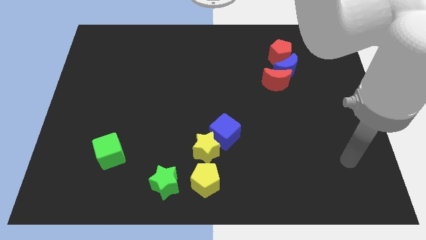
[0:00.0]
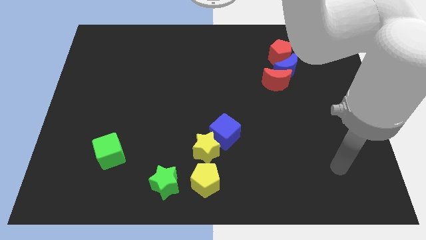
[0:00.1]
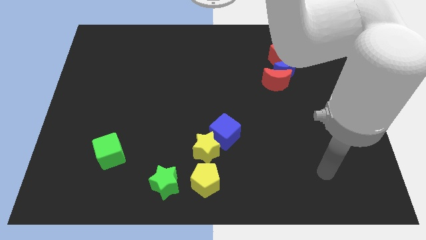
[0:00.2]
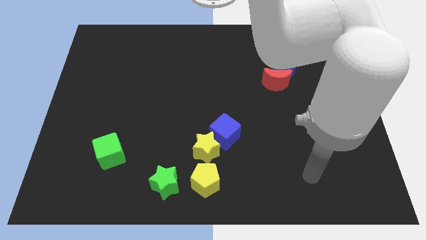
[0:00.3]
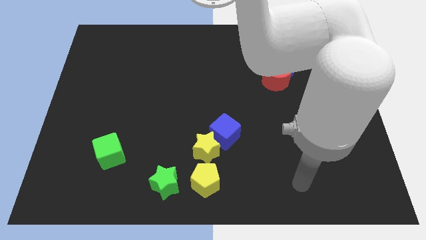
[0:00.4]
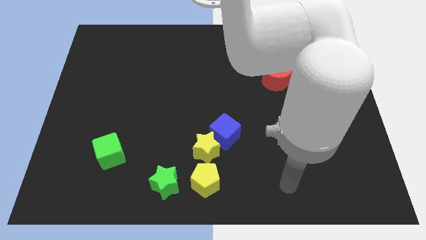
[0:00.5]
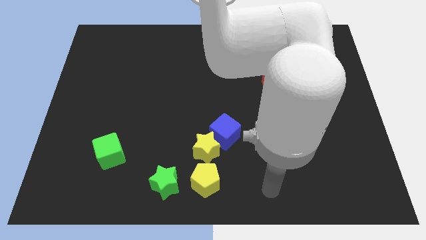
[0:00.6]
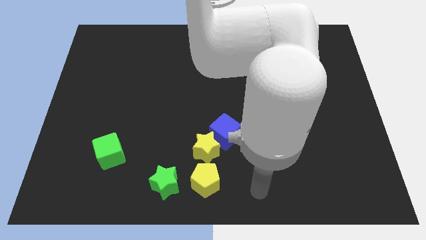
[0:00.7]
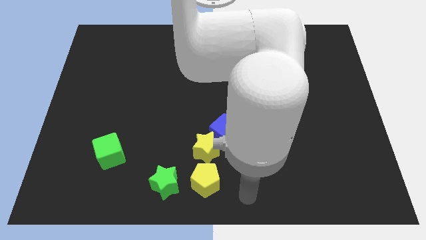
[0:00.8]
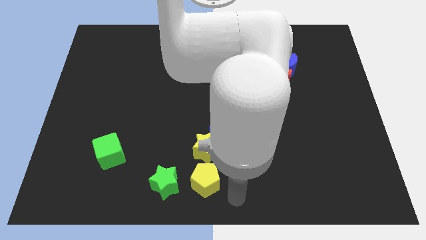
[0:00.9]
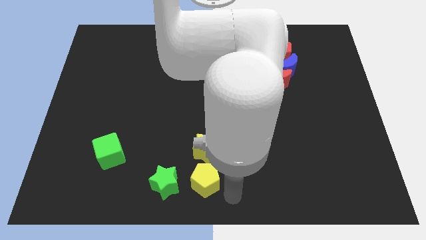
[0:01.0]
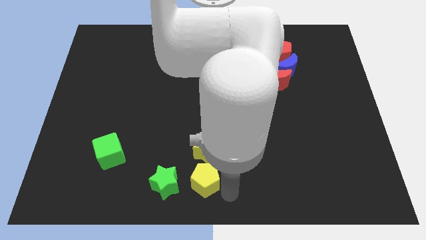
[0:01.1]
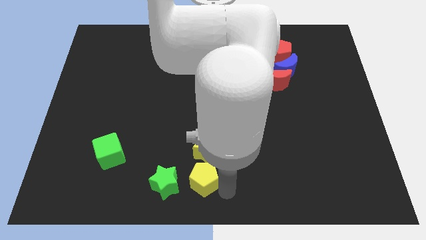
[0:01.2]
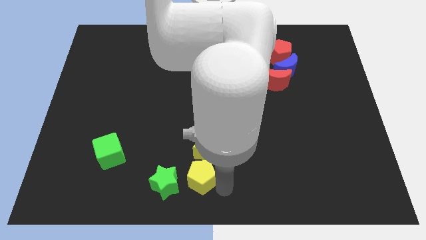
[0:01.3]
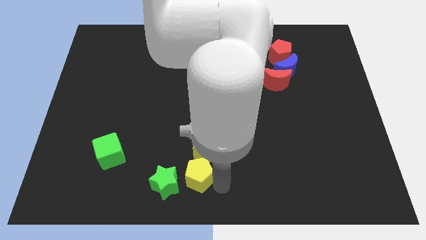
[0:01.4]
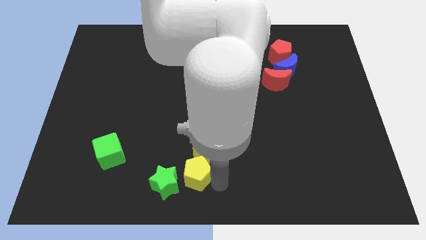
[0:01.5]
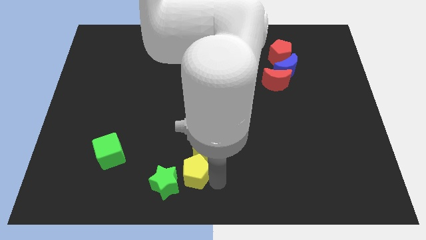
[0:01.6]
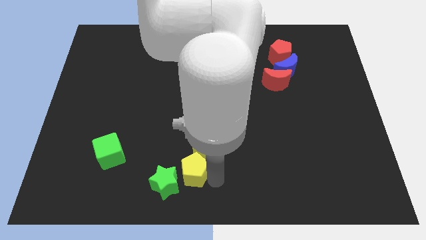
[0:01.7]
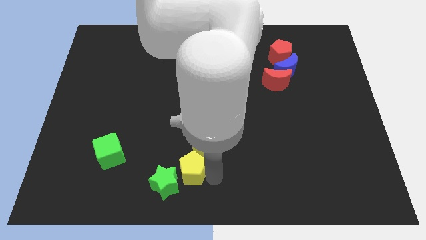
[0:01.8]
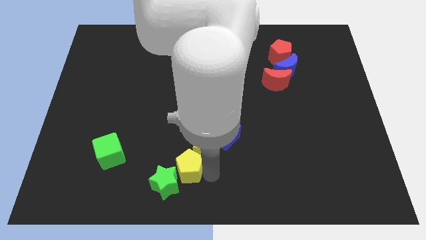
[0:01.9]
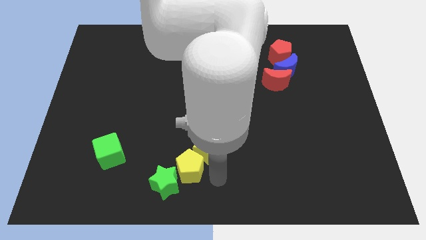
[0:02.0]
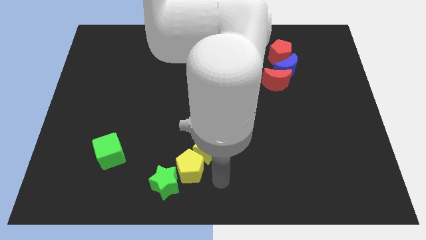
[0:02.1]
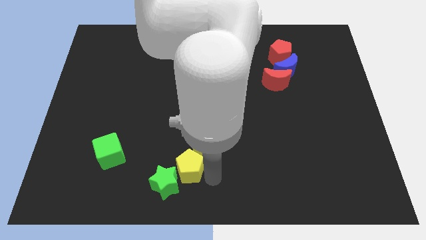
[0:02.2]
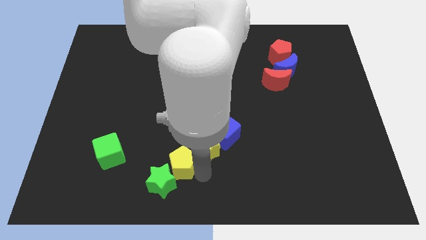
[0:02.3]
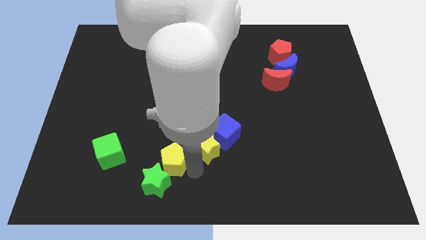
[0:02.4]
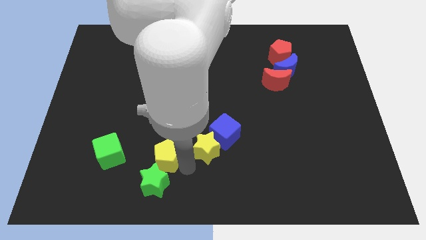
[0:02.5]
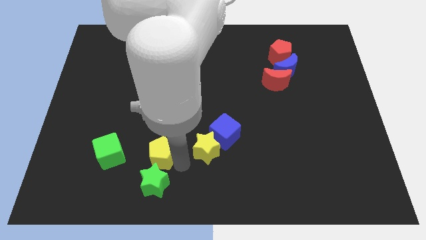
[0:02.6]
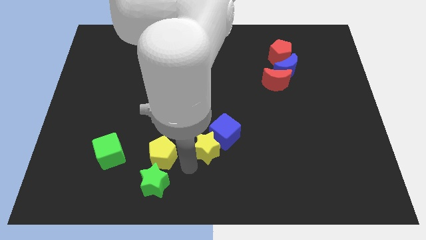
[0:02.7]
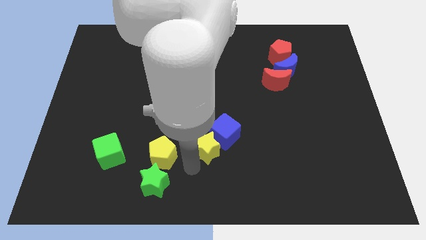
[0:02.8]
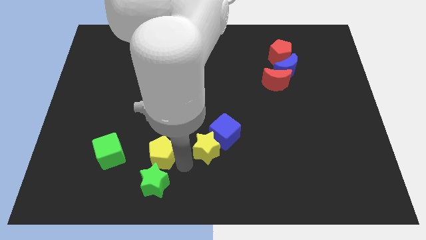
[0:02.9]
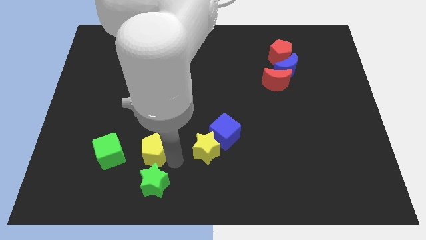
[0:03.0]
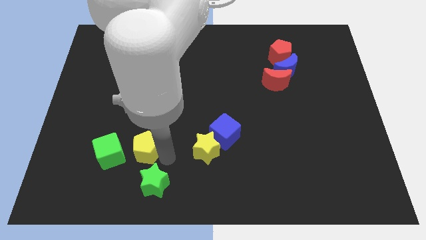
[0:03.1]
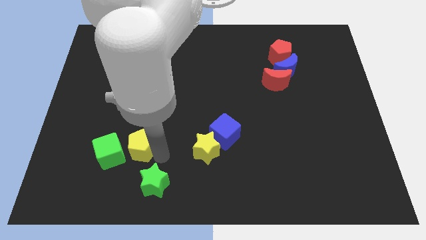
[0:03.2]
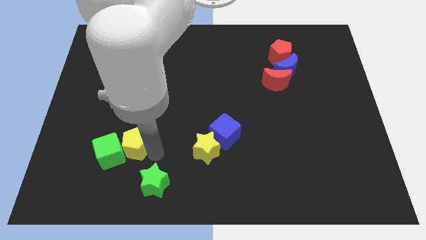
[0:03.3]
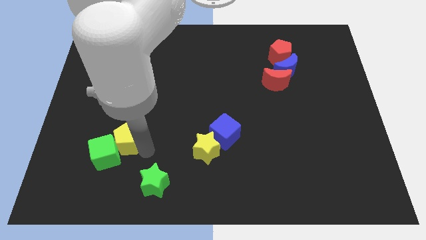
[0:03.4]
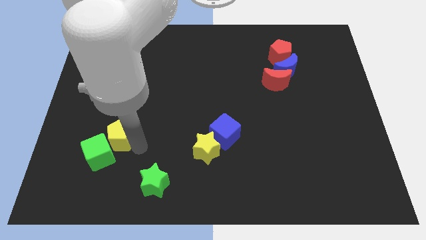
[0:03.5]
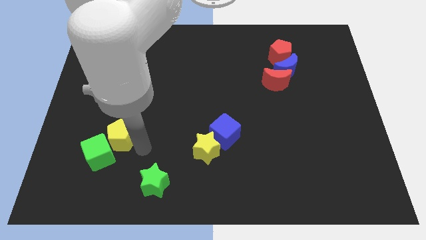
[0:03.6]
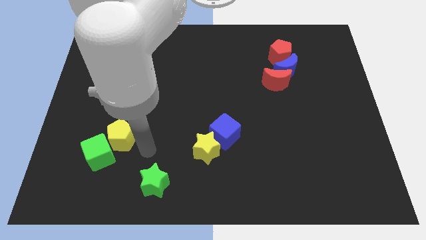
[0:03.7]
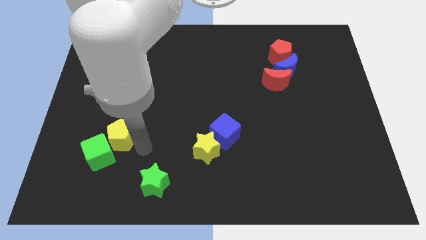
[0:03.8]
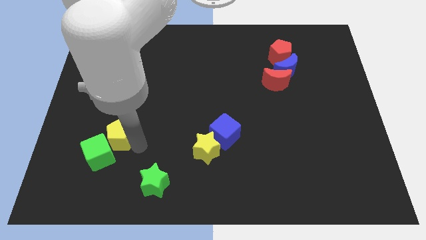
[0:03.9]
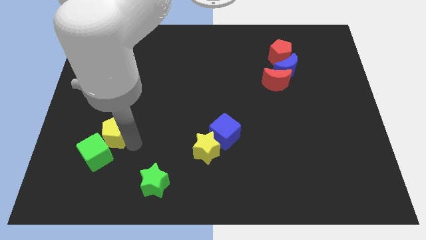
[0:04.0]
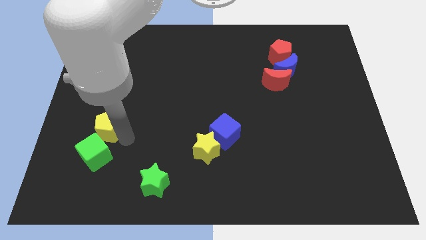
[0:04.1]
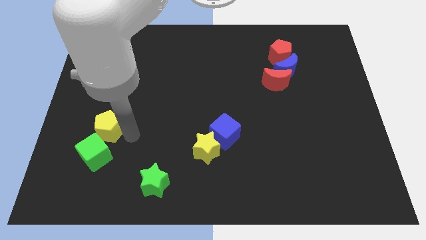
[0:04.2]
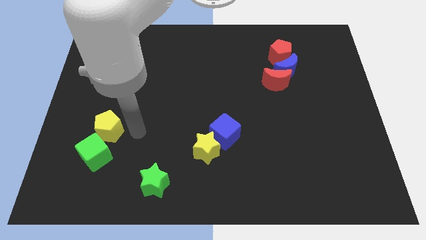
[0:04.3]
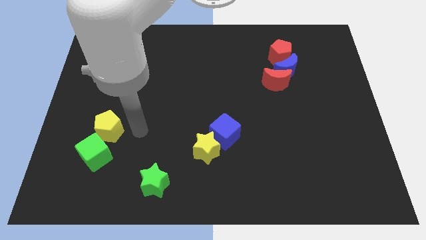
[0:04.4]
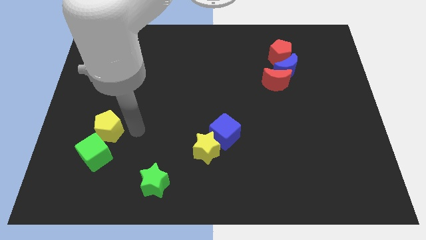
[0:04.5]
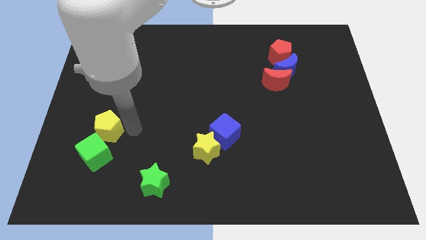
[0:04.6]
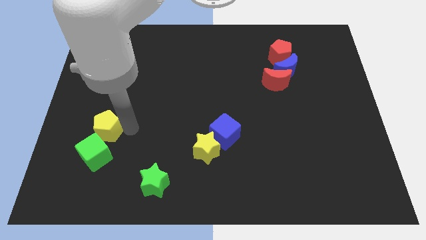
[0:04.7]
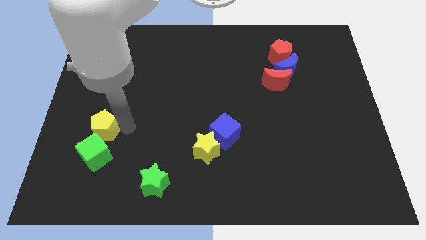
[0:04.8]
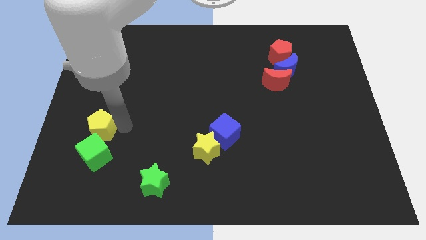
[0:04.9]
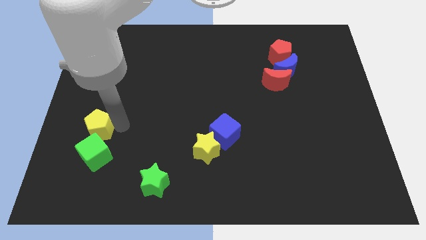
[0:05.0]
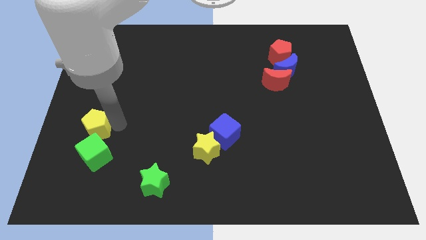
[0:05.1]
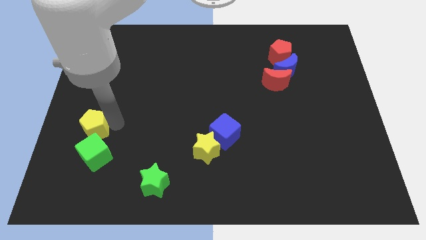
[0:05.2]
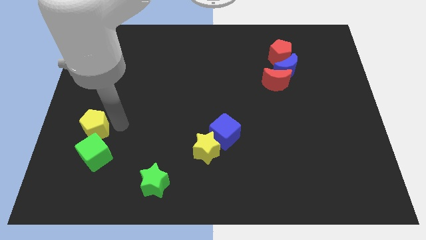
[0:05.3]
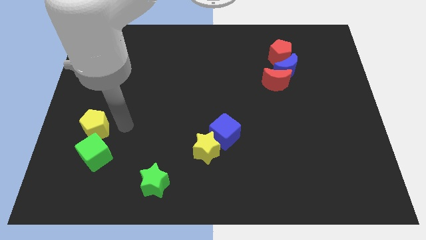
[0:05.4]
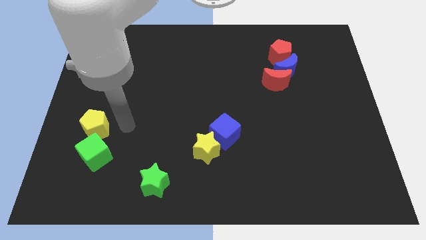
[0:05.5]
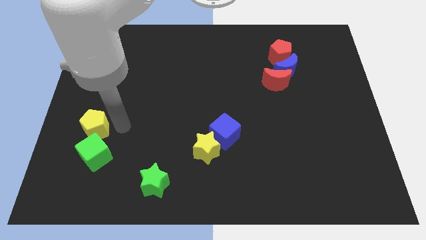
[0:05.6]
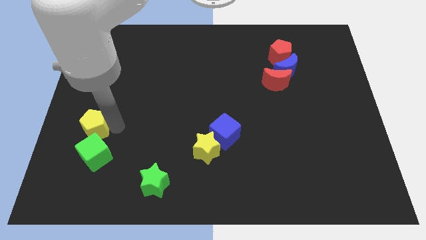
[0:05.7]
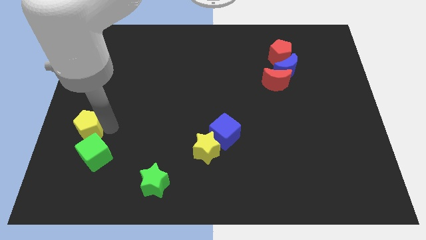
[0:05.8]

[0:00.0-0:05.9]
push the yellow pentagon to the left side of the board

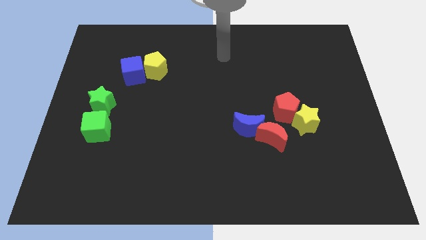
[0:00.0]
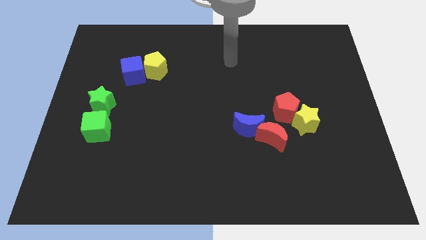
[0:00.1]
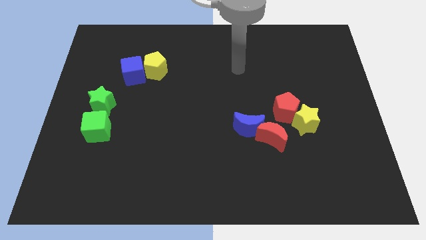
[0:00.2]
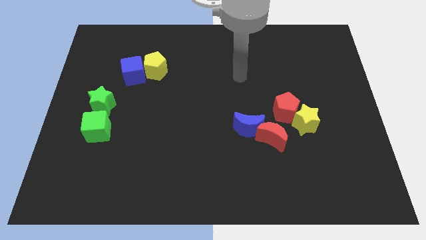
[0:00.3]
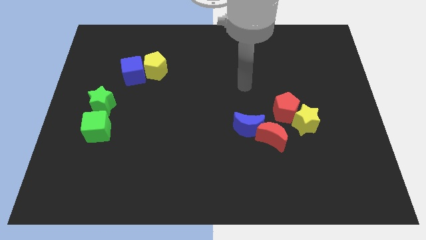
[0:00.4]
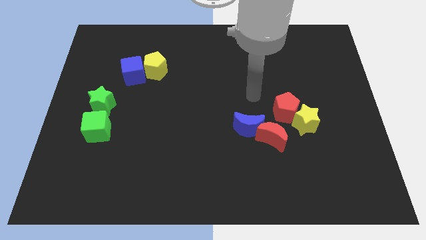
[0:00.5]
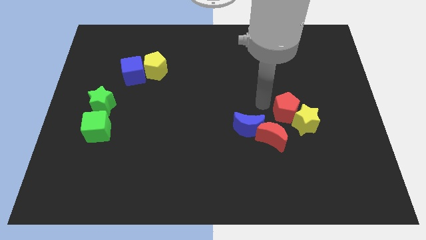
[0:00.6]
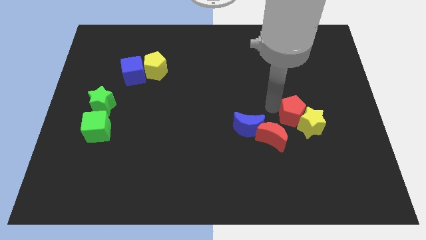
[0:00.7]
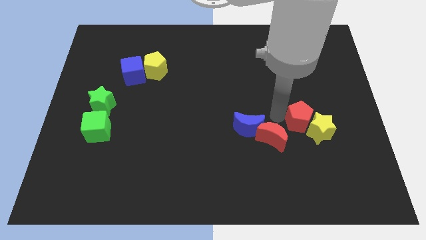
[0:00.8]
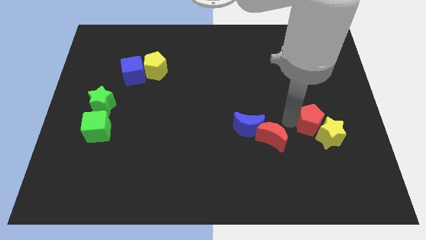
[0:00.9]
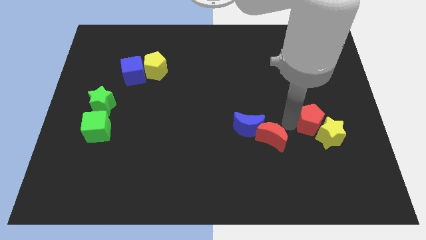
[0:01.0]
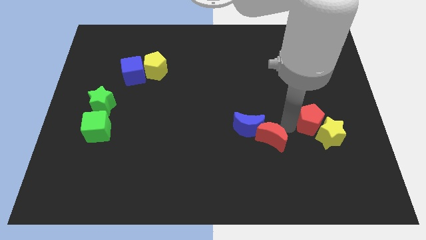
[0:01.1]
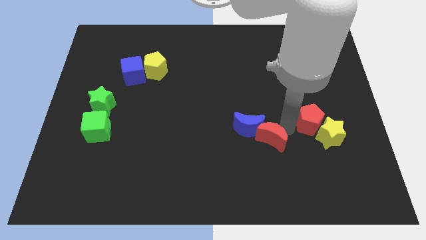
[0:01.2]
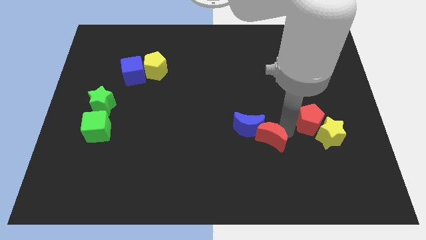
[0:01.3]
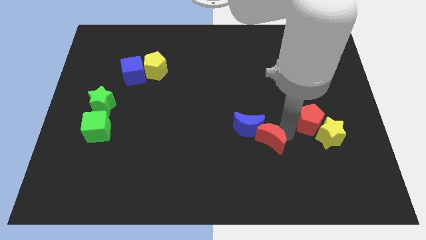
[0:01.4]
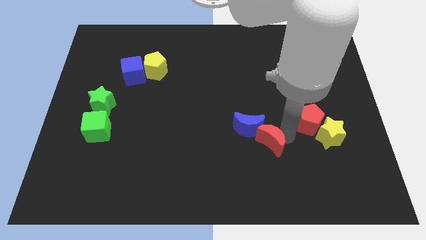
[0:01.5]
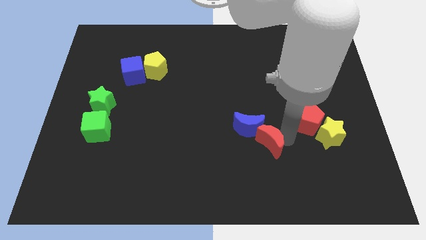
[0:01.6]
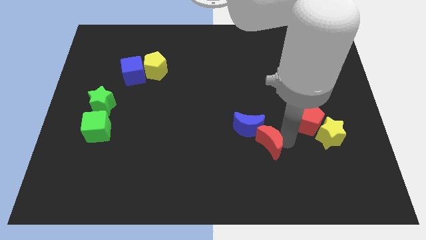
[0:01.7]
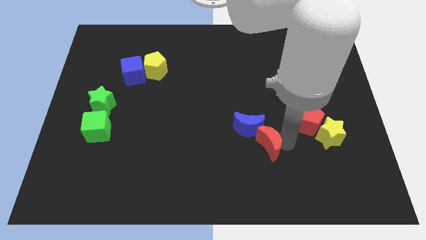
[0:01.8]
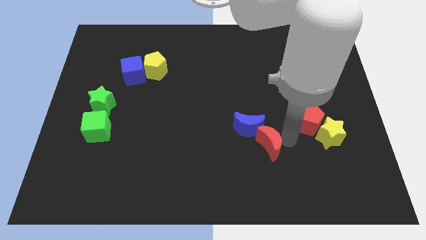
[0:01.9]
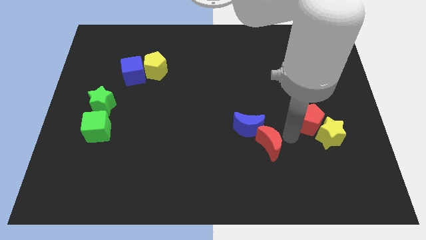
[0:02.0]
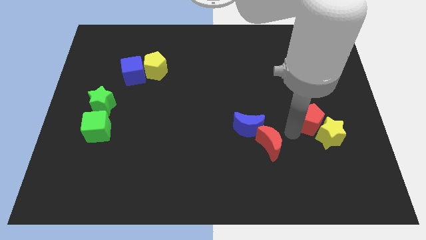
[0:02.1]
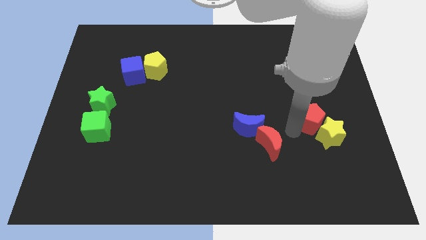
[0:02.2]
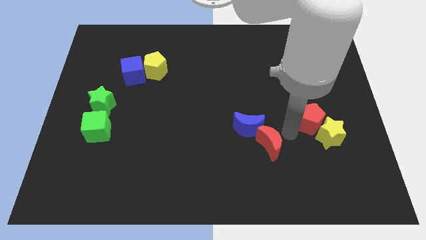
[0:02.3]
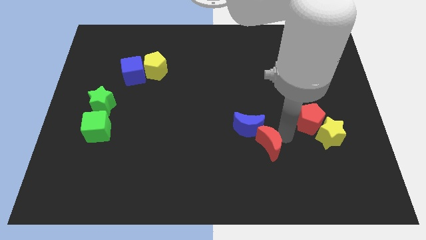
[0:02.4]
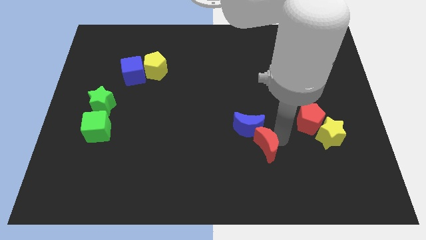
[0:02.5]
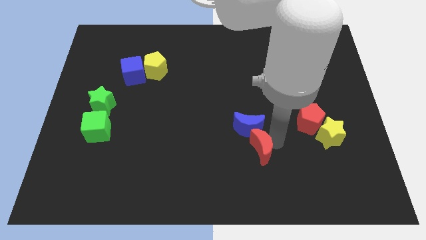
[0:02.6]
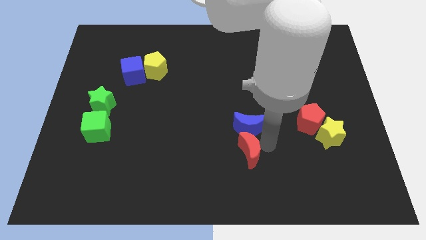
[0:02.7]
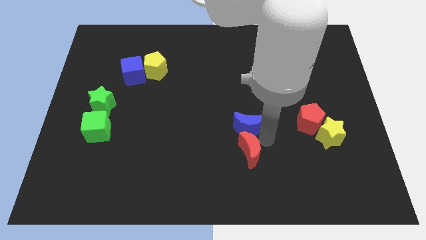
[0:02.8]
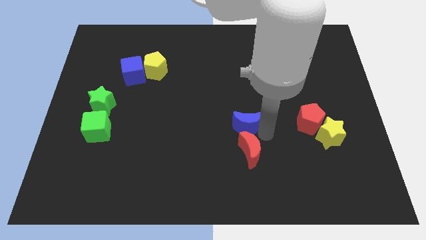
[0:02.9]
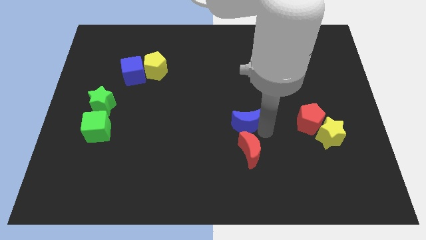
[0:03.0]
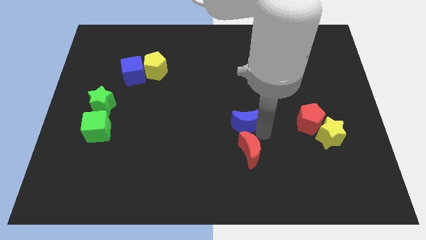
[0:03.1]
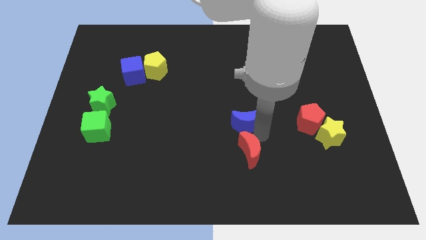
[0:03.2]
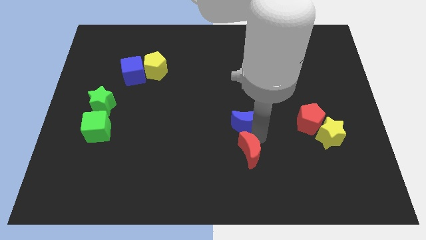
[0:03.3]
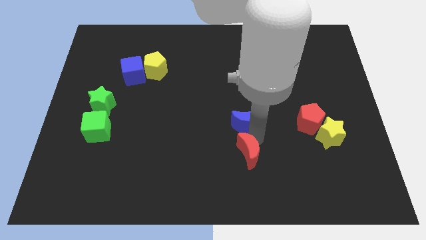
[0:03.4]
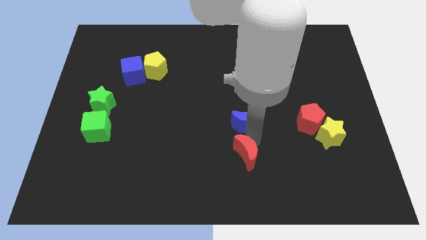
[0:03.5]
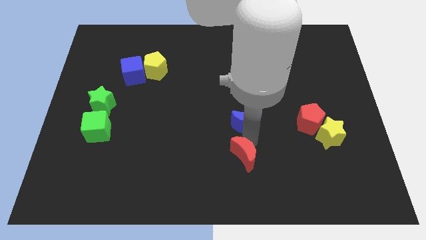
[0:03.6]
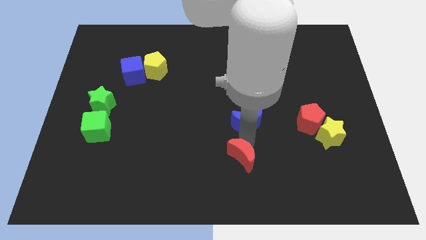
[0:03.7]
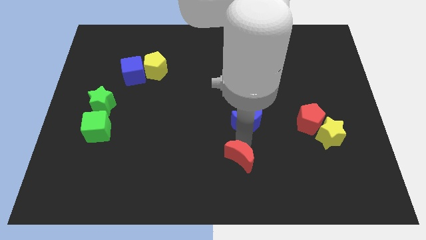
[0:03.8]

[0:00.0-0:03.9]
put the red moon to the bottom side
